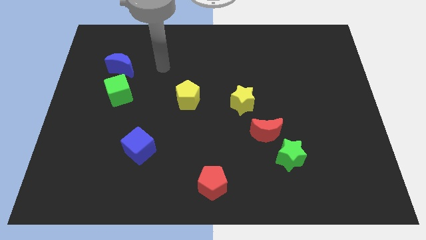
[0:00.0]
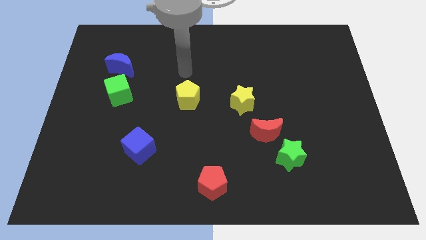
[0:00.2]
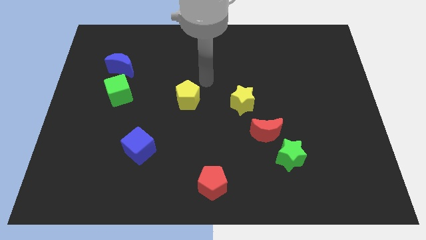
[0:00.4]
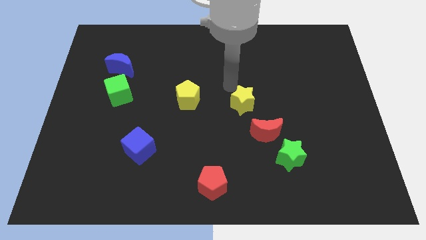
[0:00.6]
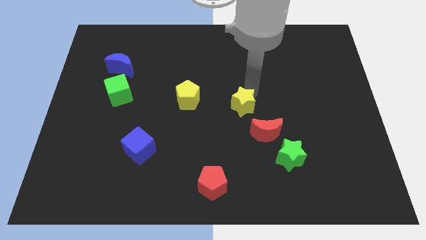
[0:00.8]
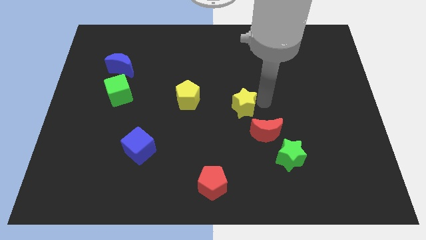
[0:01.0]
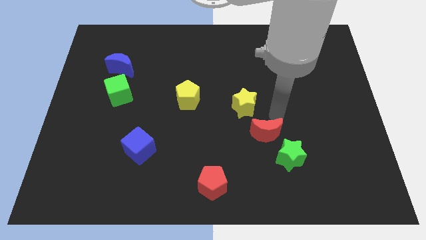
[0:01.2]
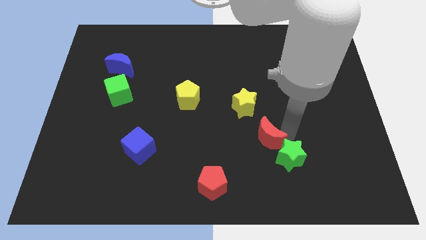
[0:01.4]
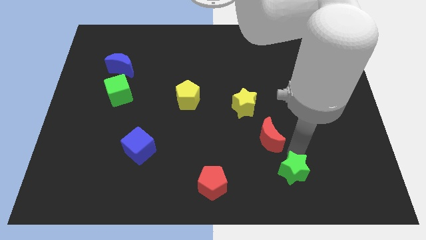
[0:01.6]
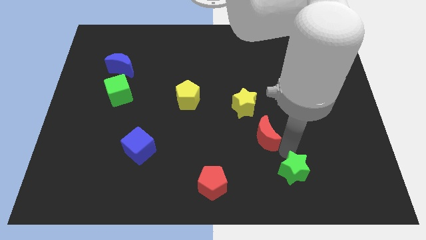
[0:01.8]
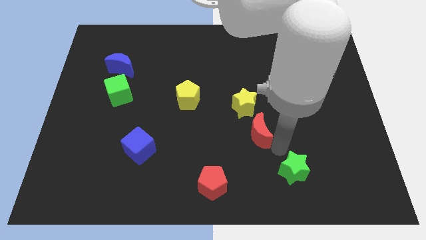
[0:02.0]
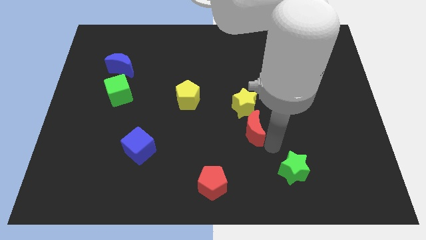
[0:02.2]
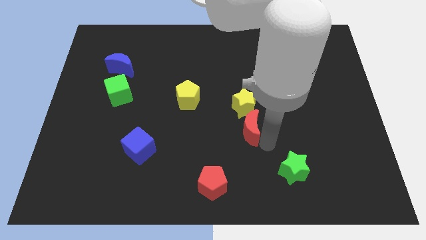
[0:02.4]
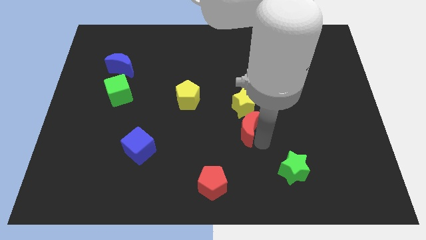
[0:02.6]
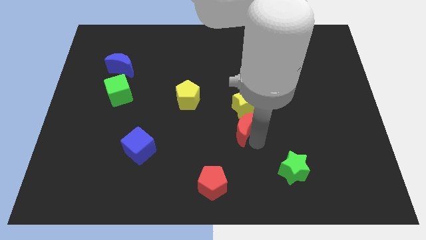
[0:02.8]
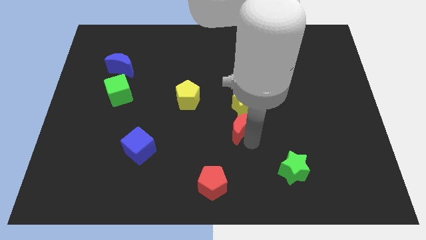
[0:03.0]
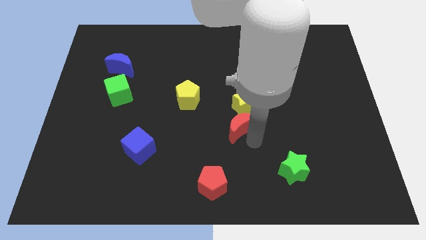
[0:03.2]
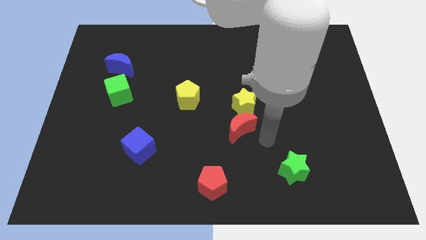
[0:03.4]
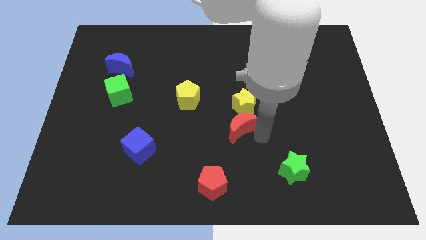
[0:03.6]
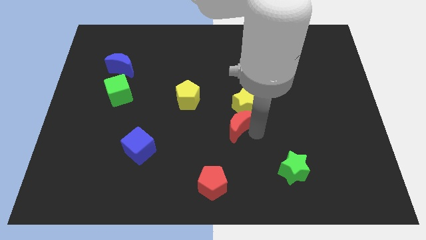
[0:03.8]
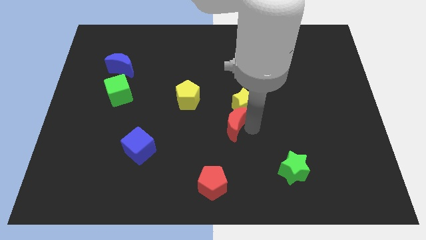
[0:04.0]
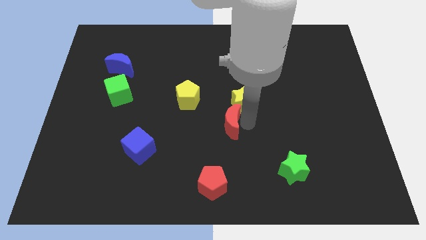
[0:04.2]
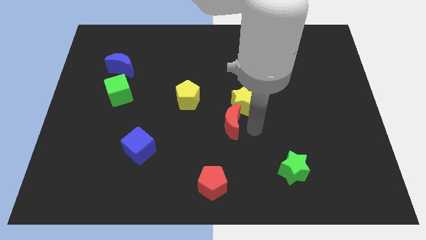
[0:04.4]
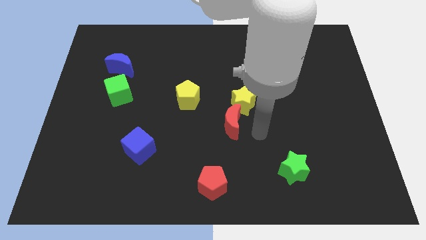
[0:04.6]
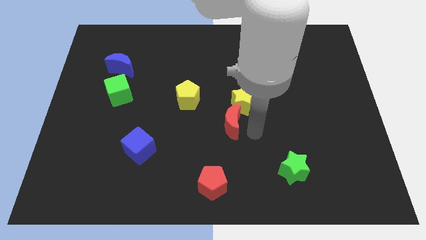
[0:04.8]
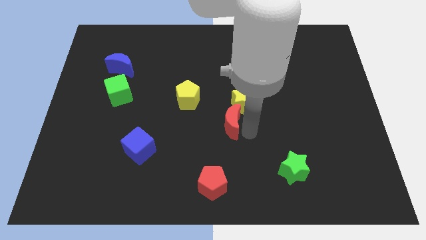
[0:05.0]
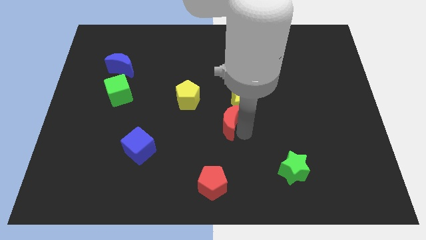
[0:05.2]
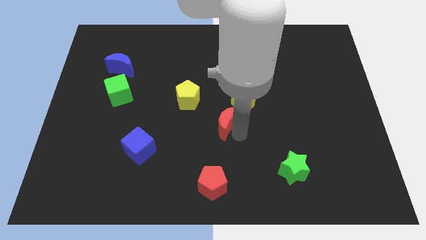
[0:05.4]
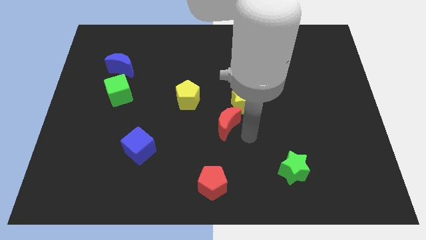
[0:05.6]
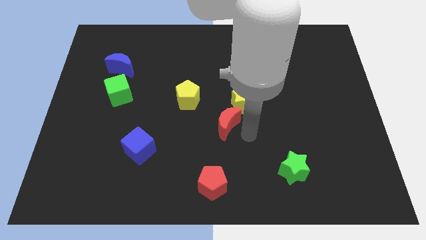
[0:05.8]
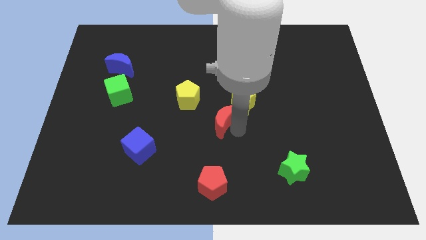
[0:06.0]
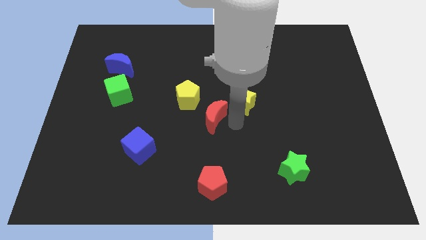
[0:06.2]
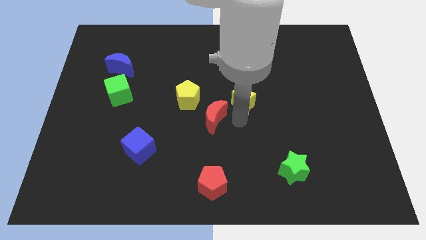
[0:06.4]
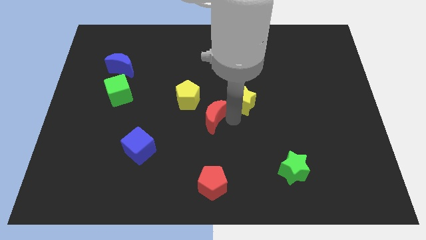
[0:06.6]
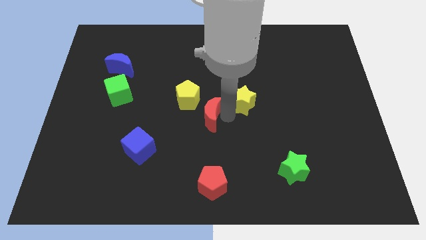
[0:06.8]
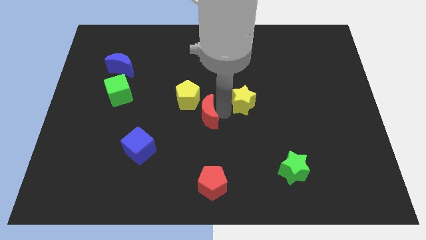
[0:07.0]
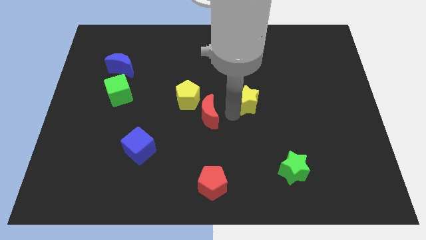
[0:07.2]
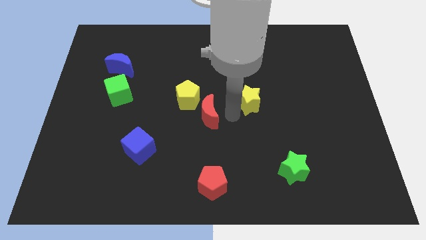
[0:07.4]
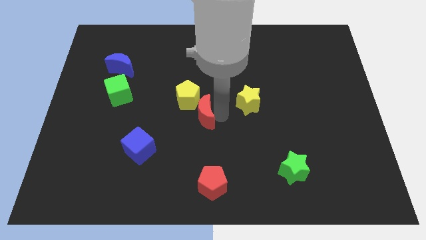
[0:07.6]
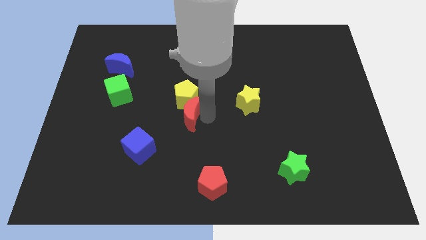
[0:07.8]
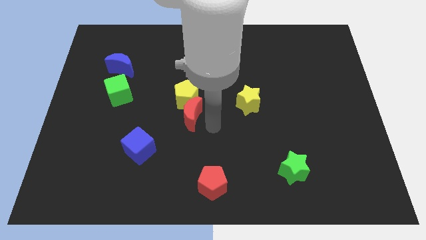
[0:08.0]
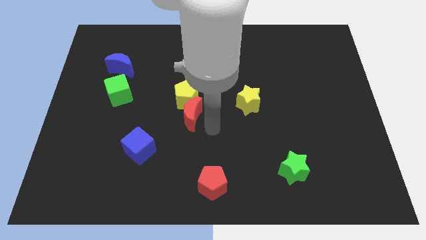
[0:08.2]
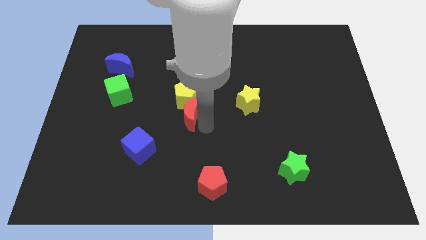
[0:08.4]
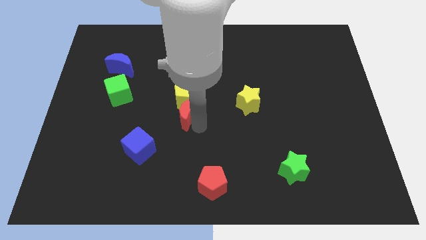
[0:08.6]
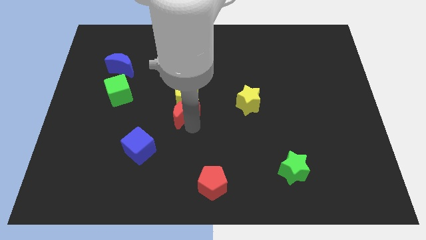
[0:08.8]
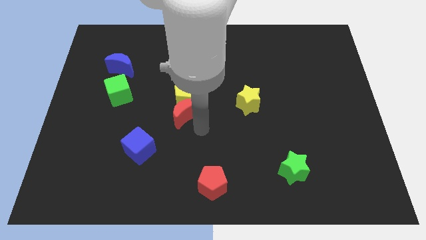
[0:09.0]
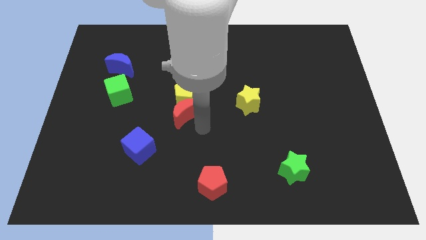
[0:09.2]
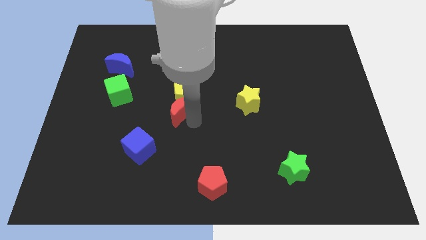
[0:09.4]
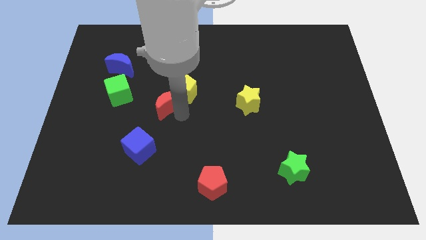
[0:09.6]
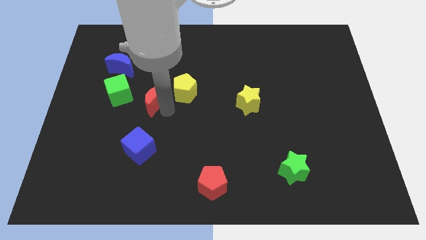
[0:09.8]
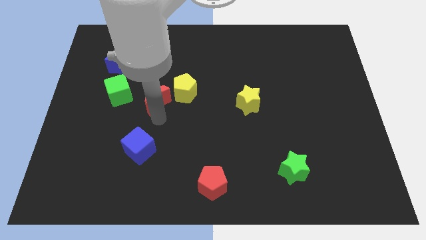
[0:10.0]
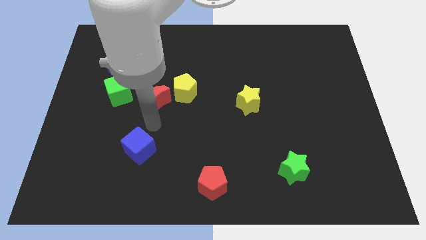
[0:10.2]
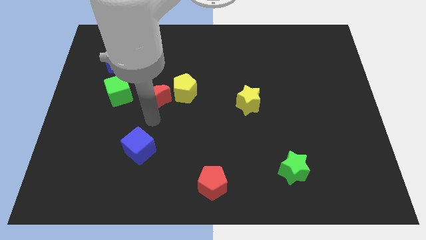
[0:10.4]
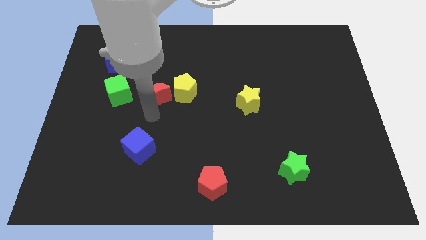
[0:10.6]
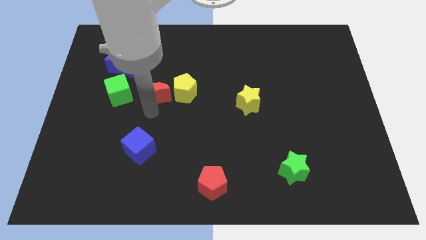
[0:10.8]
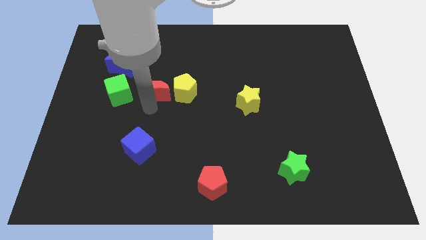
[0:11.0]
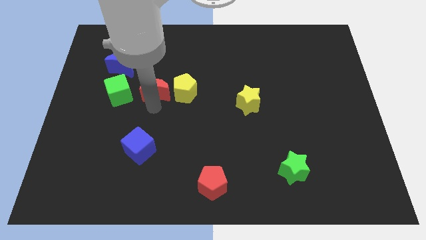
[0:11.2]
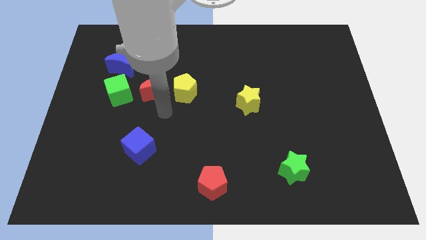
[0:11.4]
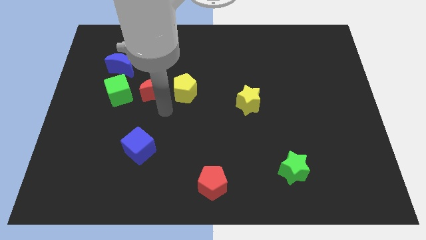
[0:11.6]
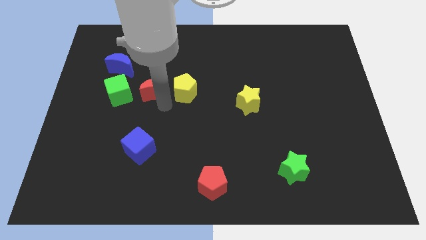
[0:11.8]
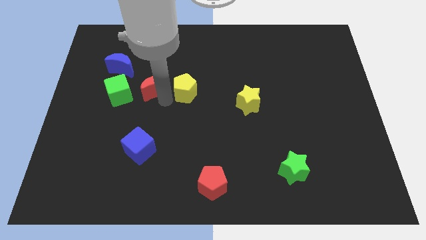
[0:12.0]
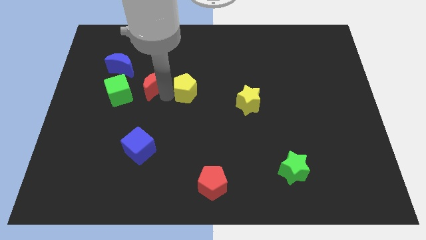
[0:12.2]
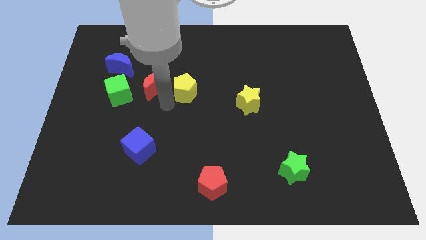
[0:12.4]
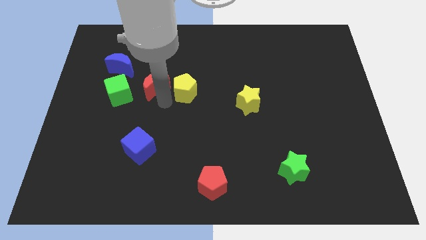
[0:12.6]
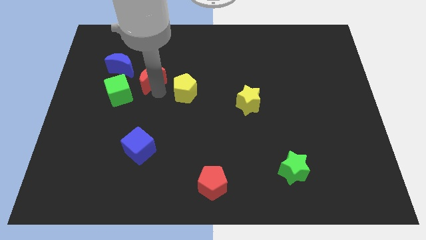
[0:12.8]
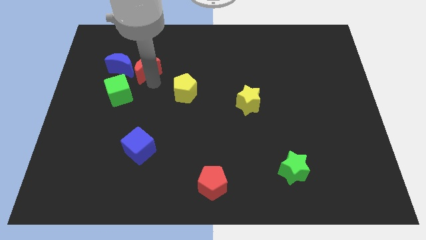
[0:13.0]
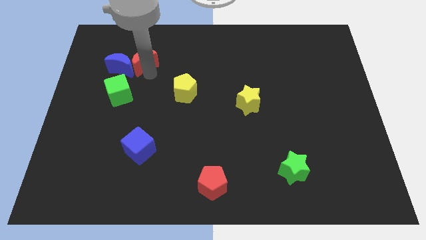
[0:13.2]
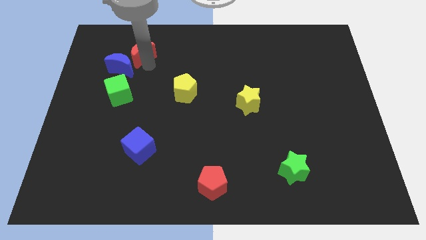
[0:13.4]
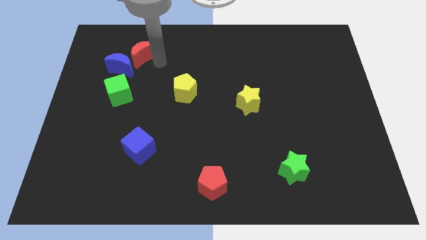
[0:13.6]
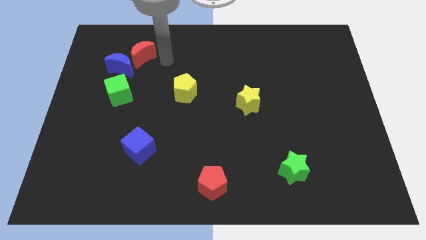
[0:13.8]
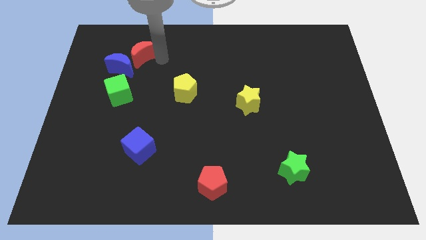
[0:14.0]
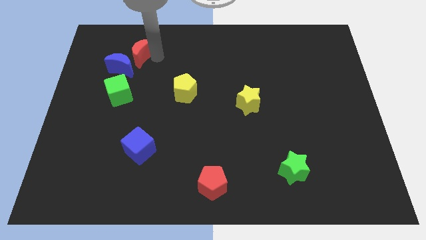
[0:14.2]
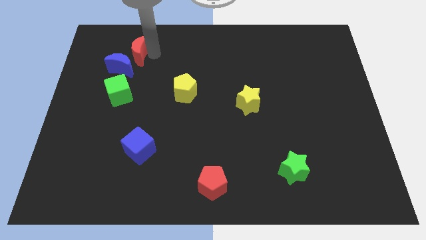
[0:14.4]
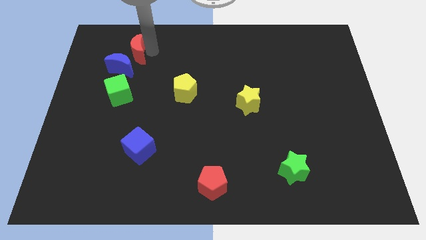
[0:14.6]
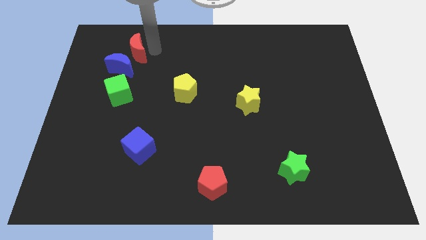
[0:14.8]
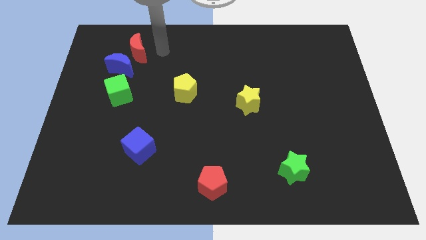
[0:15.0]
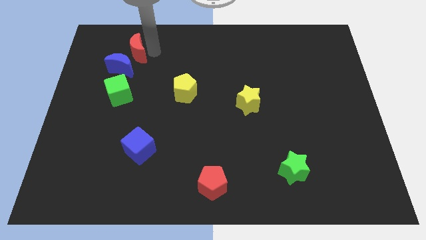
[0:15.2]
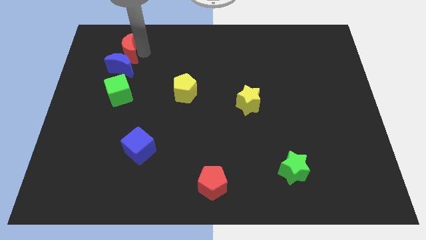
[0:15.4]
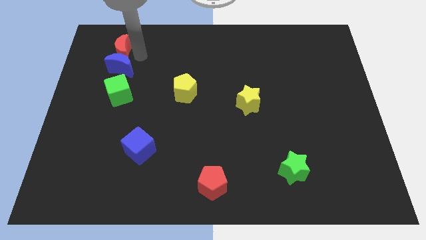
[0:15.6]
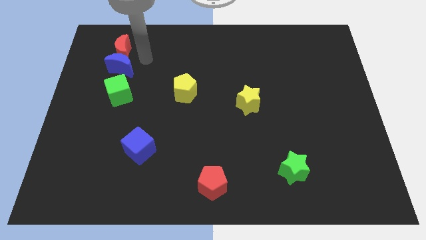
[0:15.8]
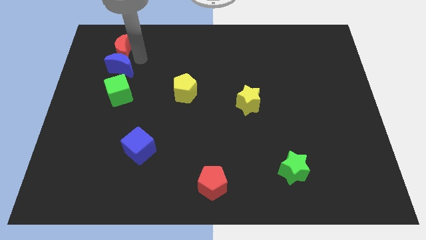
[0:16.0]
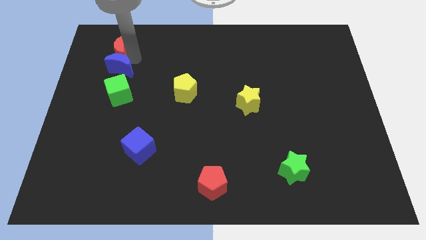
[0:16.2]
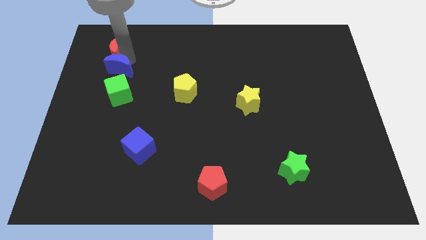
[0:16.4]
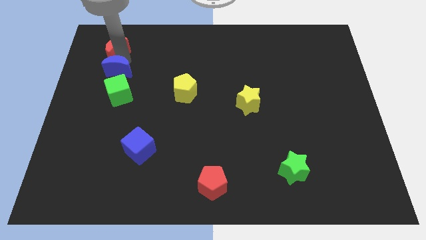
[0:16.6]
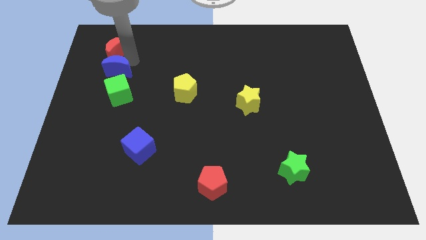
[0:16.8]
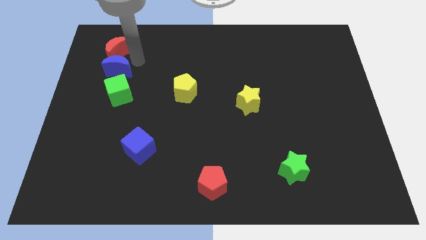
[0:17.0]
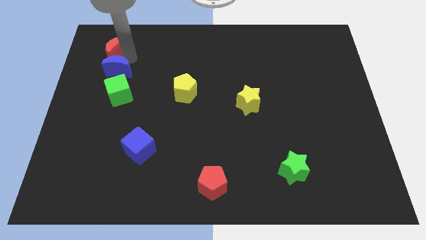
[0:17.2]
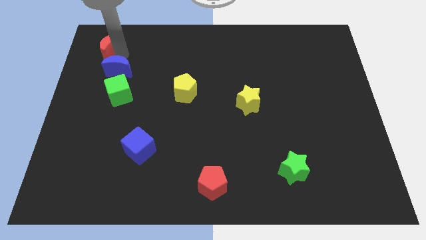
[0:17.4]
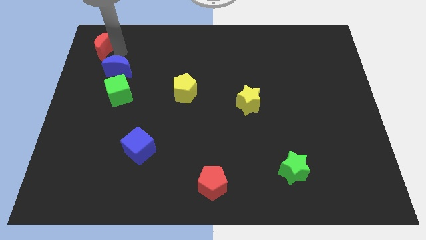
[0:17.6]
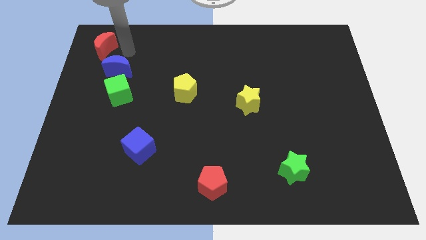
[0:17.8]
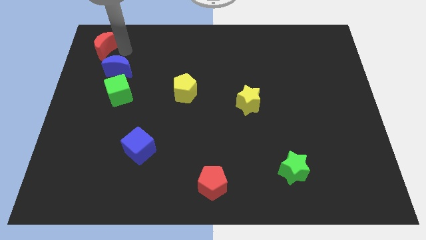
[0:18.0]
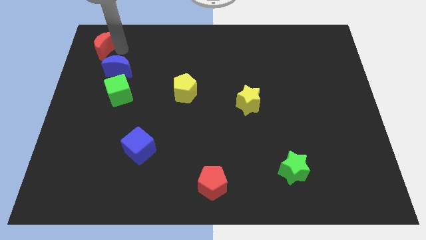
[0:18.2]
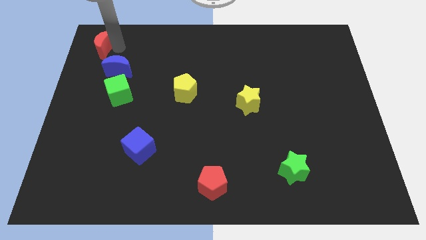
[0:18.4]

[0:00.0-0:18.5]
put the red moon to the top left
